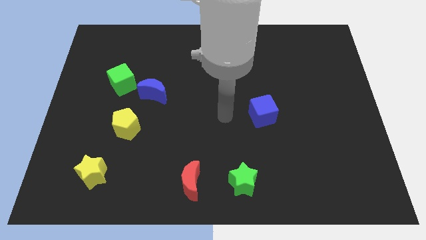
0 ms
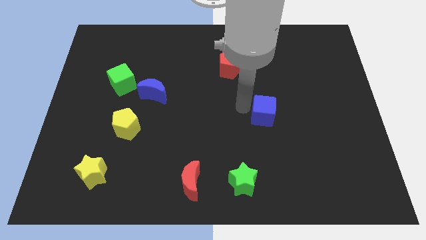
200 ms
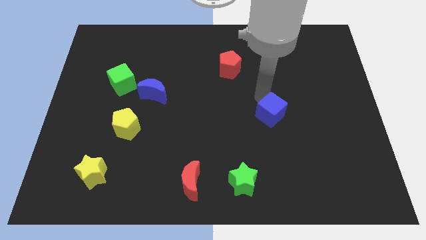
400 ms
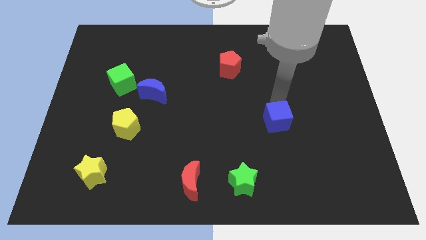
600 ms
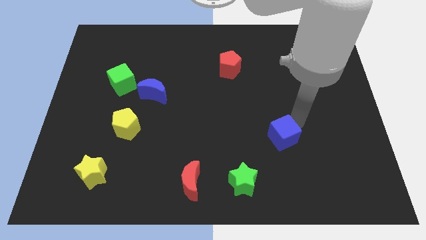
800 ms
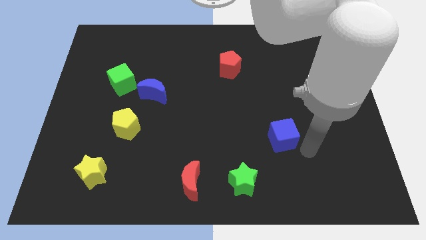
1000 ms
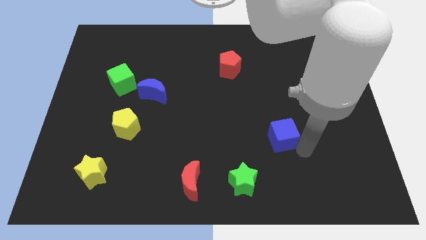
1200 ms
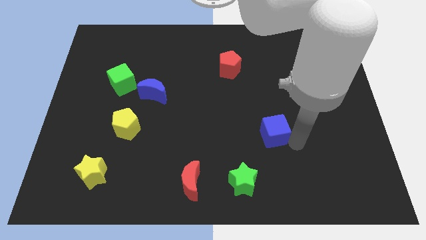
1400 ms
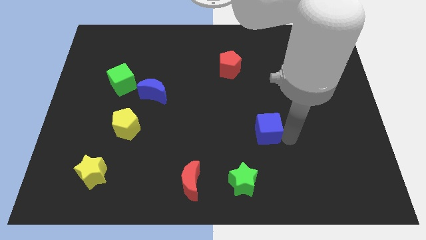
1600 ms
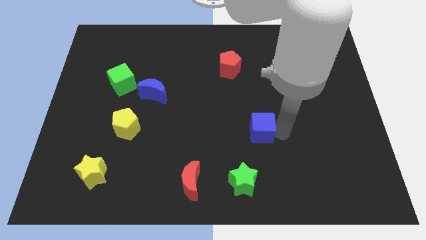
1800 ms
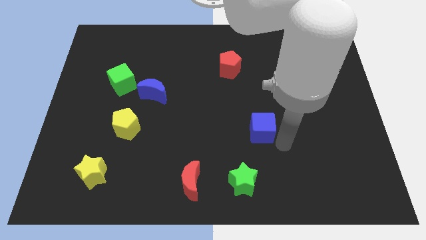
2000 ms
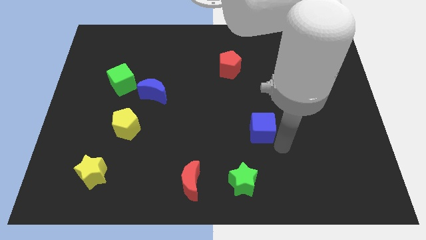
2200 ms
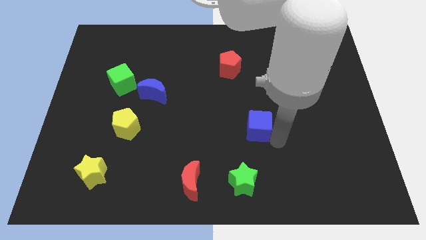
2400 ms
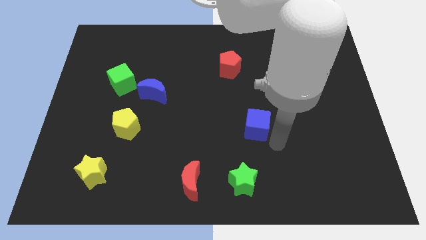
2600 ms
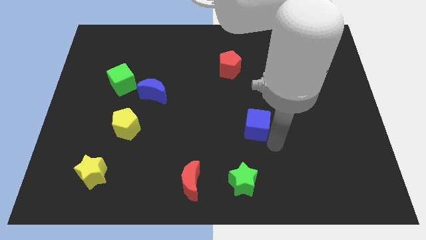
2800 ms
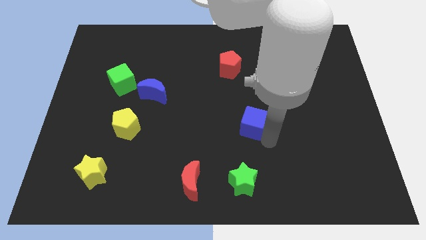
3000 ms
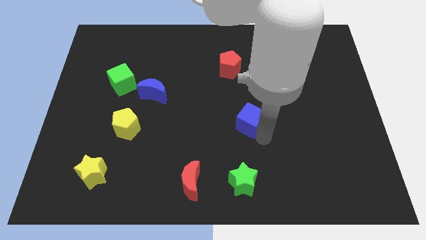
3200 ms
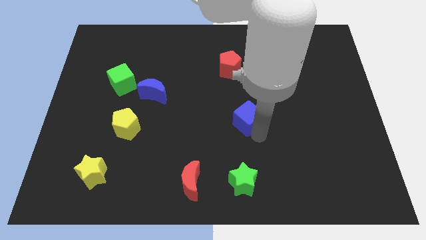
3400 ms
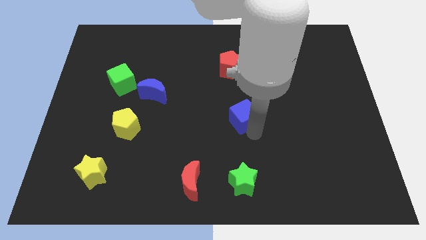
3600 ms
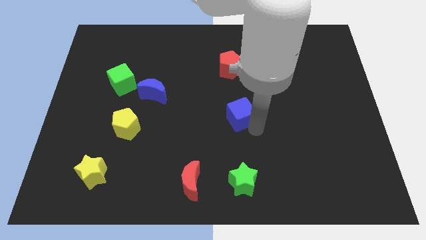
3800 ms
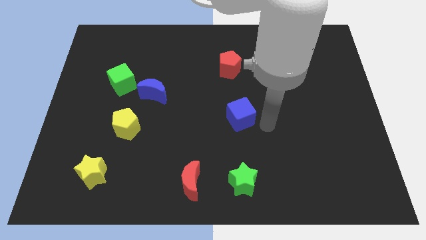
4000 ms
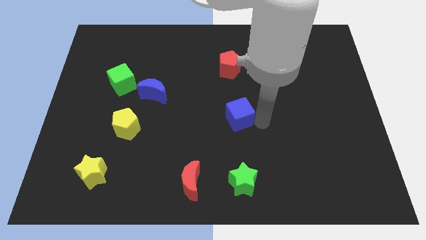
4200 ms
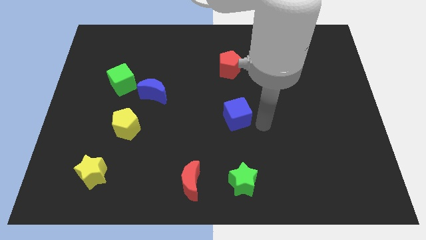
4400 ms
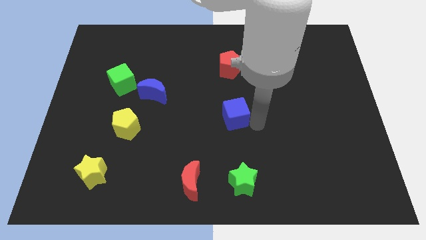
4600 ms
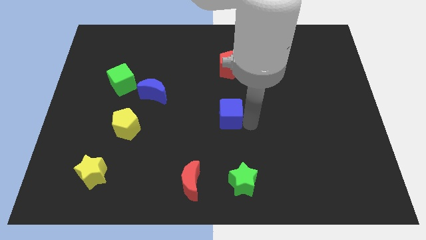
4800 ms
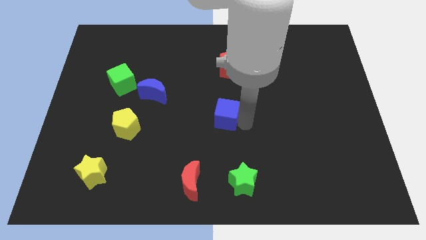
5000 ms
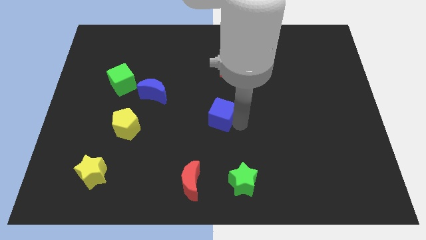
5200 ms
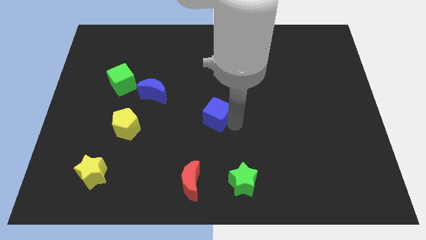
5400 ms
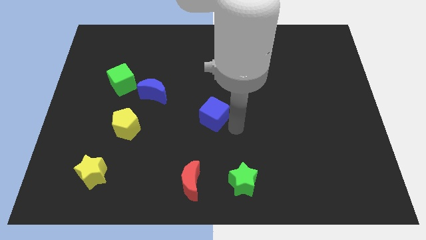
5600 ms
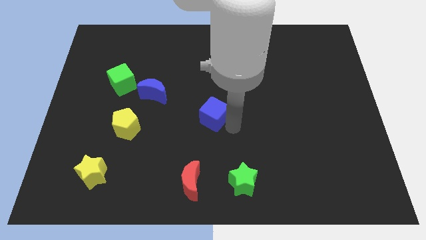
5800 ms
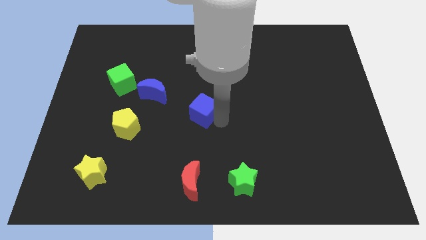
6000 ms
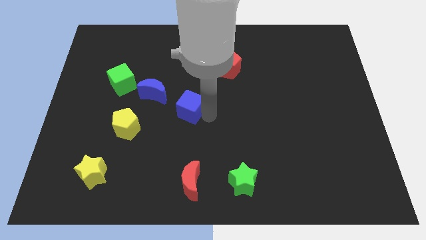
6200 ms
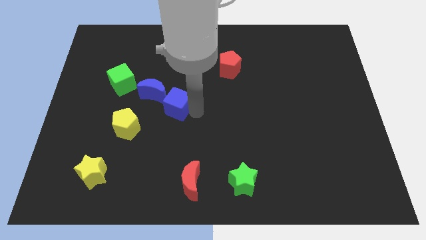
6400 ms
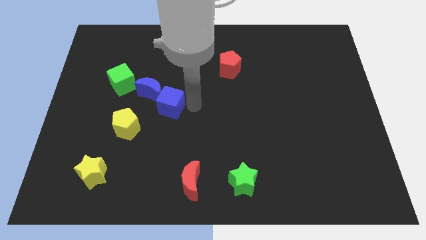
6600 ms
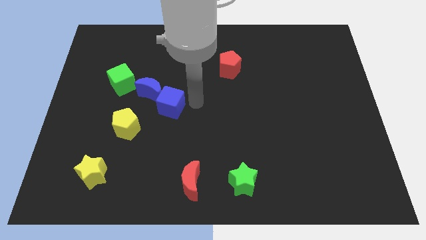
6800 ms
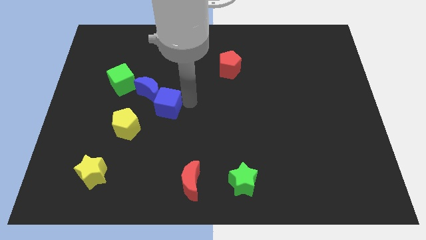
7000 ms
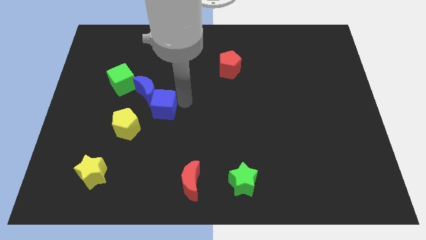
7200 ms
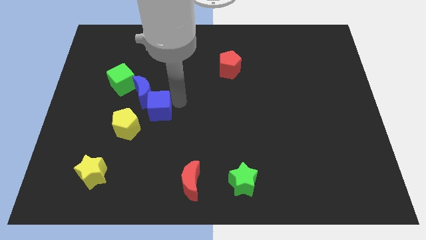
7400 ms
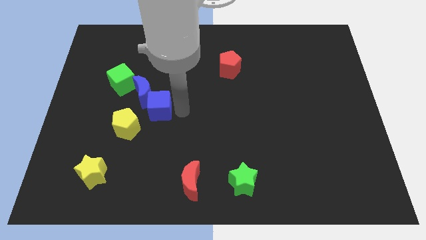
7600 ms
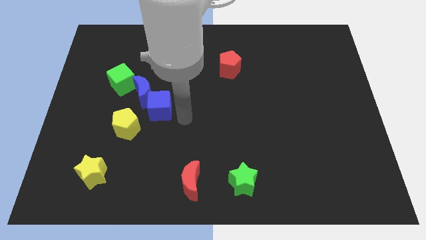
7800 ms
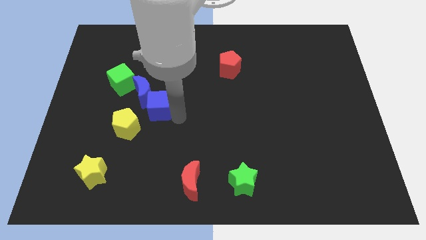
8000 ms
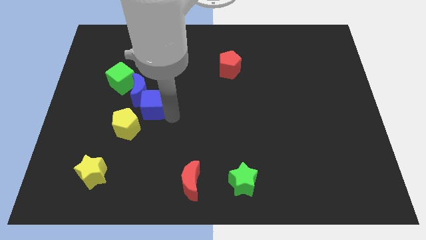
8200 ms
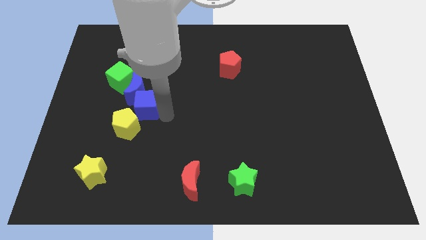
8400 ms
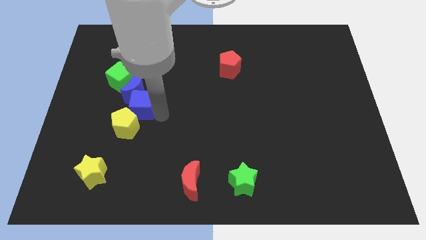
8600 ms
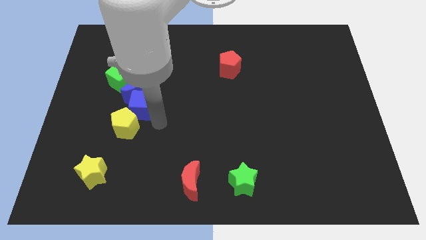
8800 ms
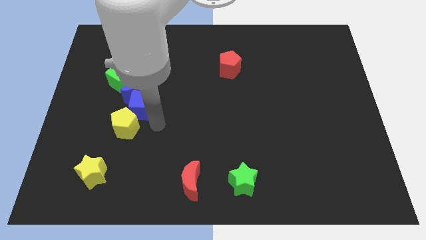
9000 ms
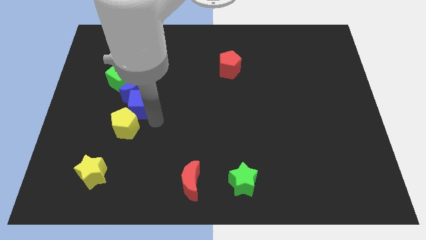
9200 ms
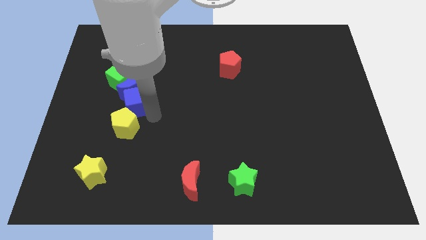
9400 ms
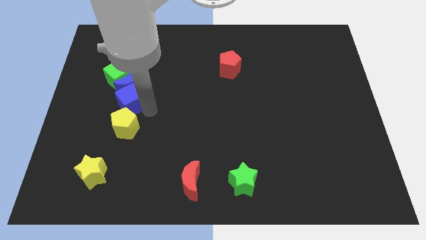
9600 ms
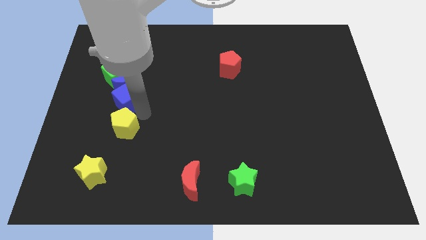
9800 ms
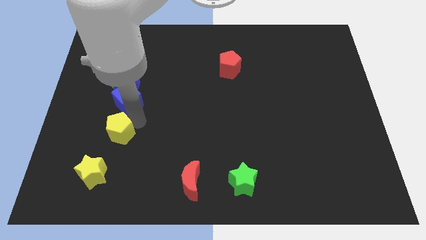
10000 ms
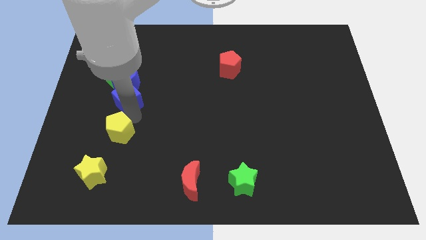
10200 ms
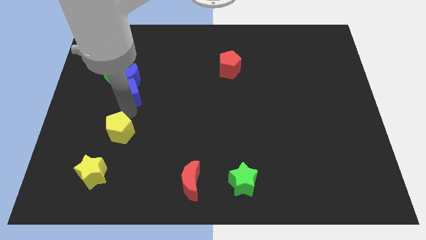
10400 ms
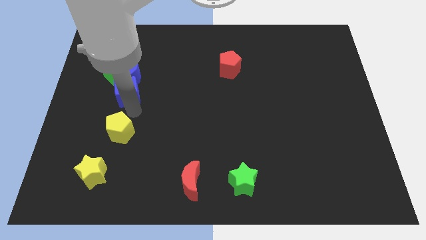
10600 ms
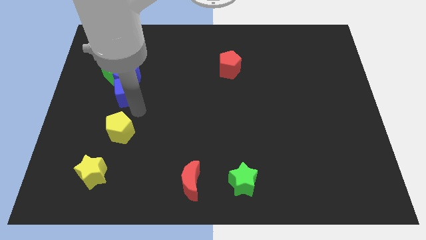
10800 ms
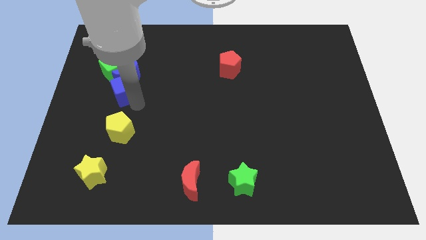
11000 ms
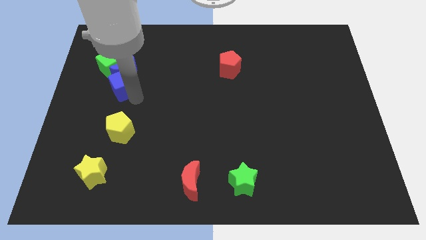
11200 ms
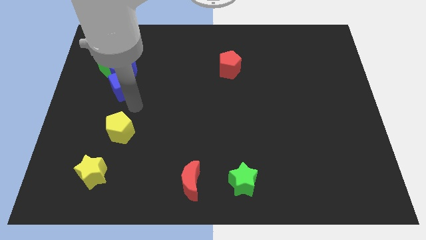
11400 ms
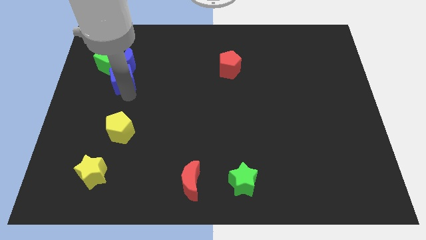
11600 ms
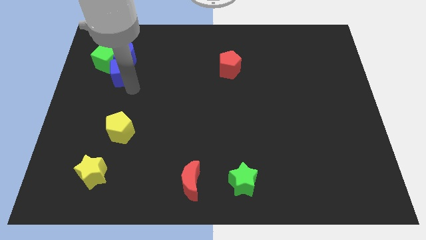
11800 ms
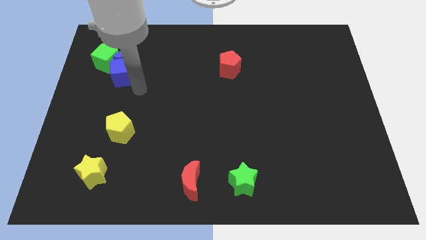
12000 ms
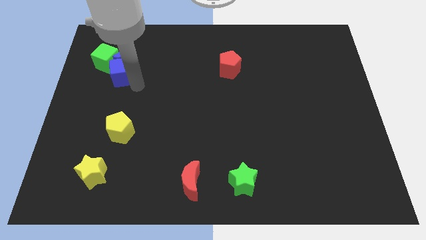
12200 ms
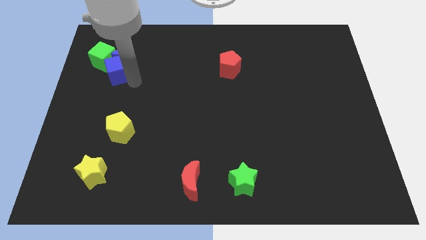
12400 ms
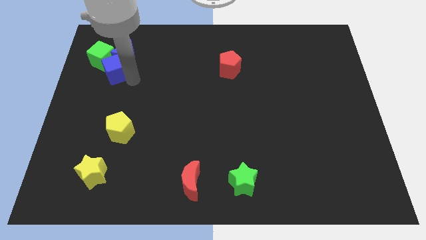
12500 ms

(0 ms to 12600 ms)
put the blue cube to the green cube

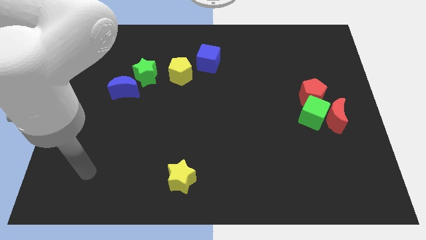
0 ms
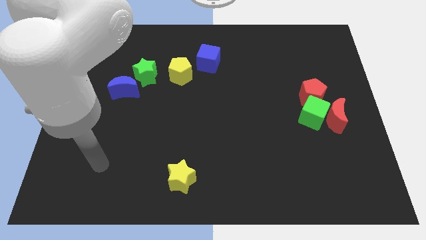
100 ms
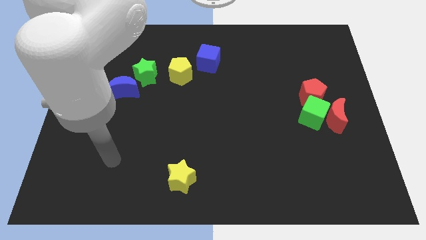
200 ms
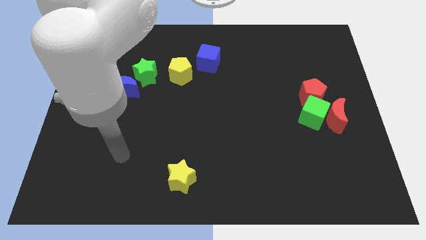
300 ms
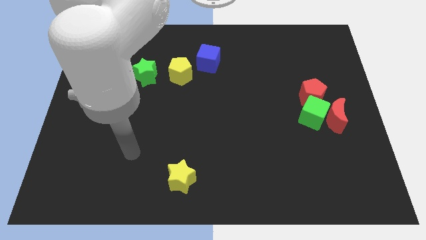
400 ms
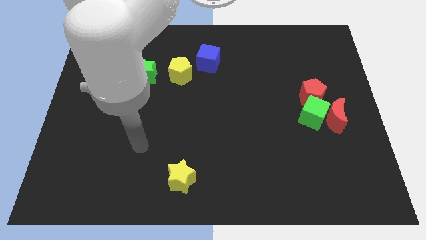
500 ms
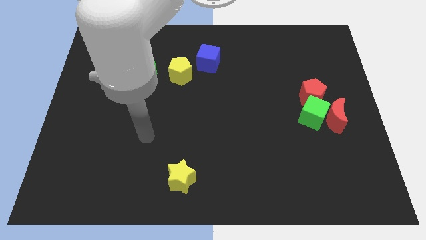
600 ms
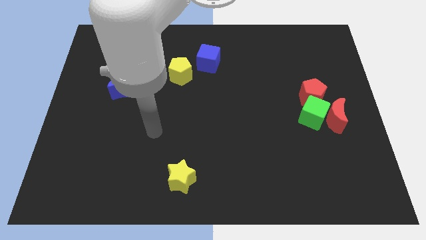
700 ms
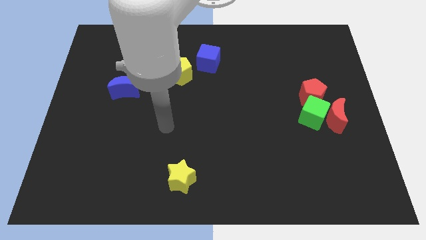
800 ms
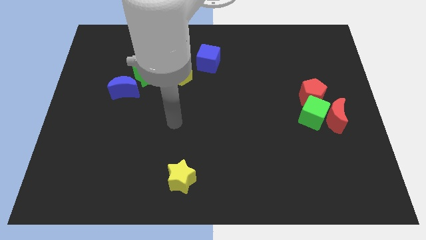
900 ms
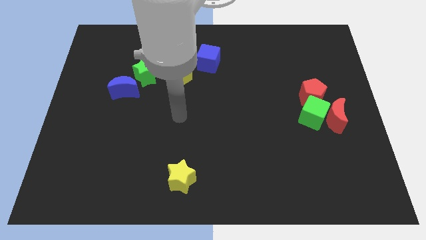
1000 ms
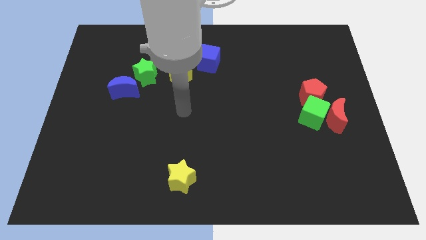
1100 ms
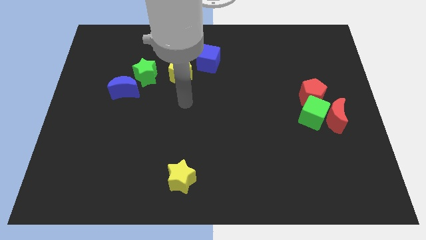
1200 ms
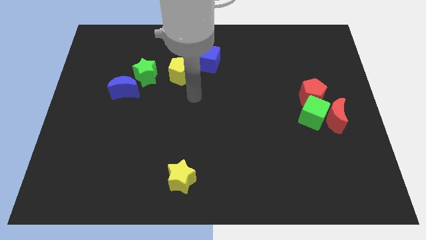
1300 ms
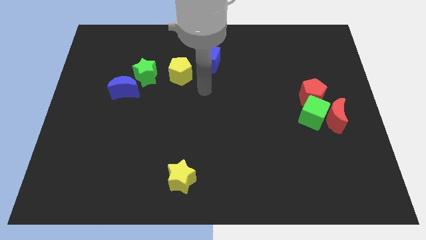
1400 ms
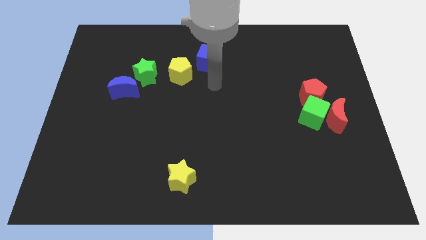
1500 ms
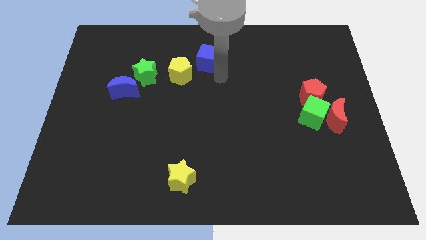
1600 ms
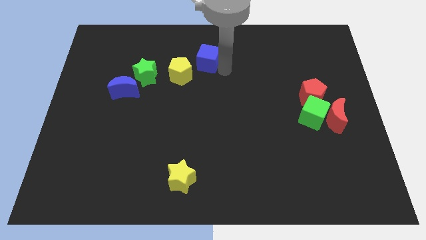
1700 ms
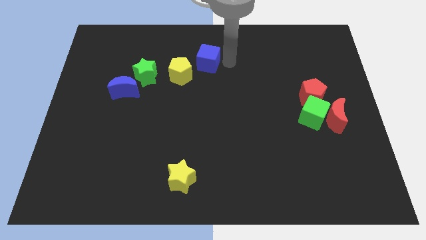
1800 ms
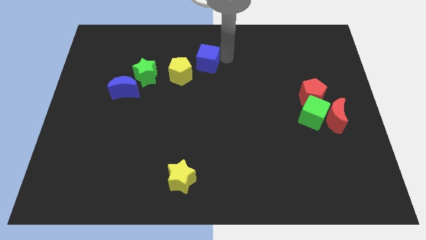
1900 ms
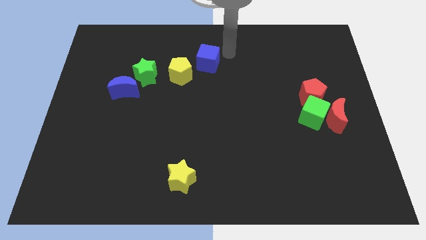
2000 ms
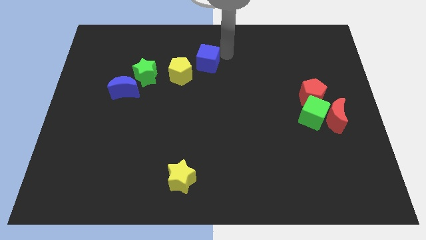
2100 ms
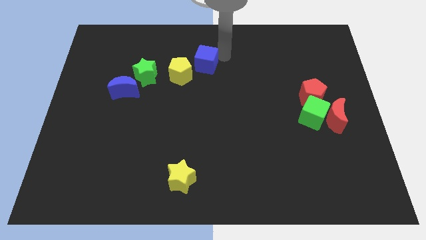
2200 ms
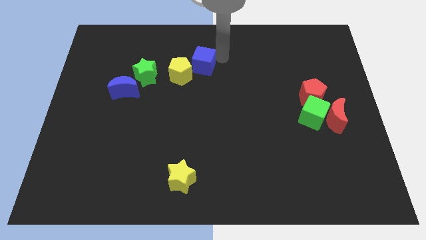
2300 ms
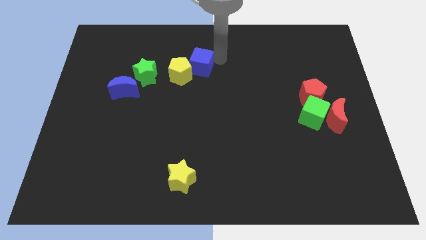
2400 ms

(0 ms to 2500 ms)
move the blue cube close to the yellow pentagon

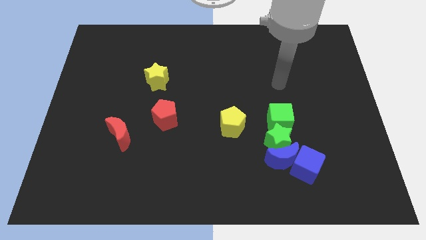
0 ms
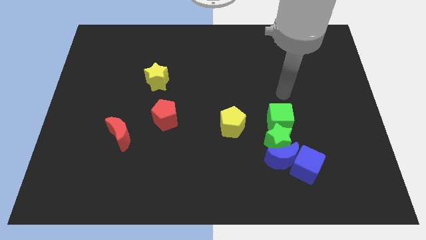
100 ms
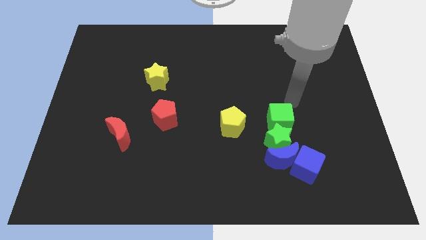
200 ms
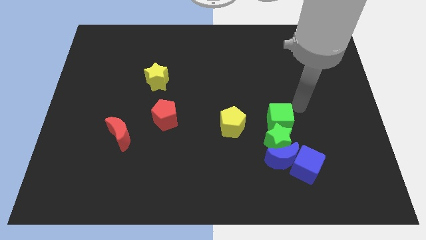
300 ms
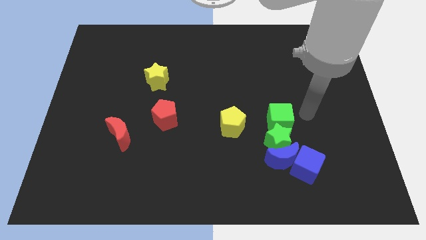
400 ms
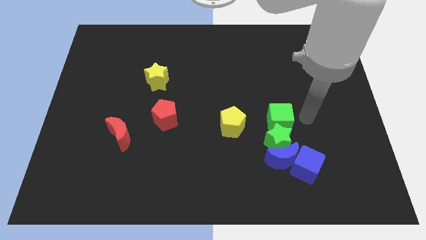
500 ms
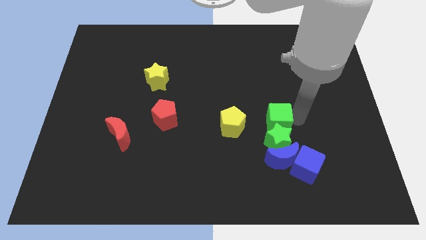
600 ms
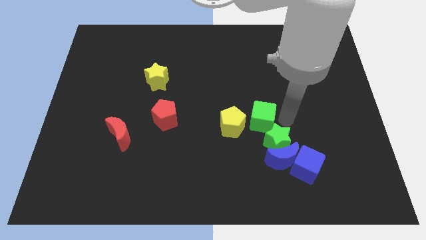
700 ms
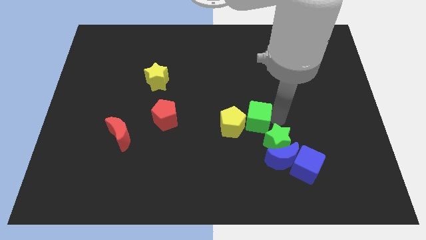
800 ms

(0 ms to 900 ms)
move the green cube close to the yellow pentagon
